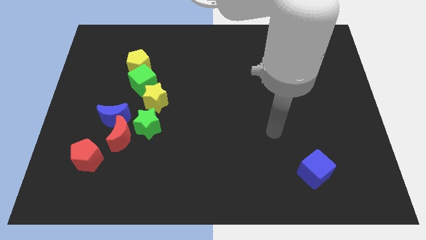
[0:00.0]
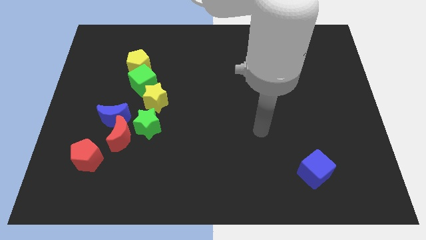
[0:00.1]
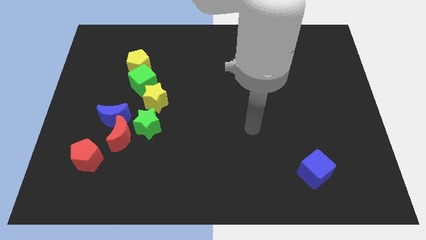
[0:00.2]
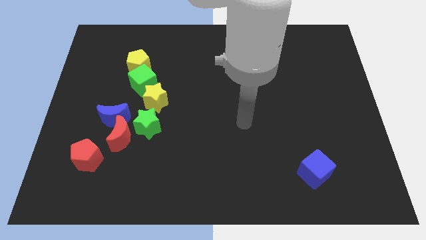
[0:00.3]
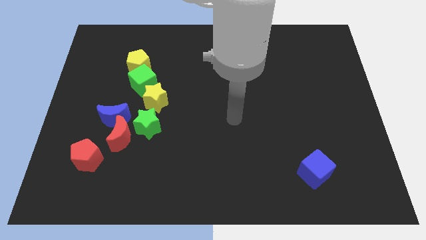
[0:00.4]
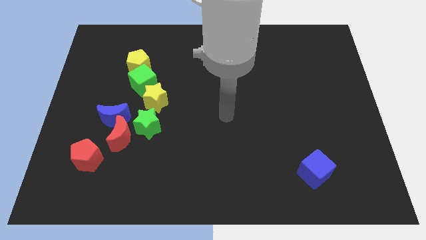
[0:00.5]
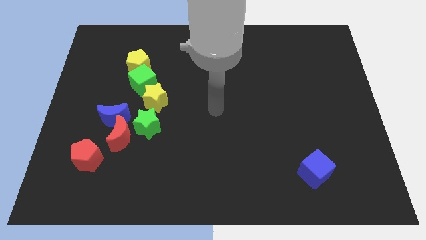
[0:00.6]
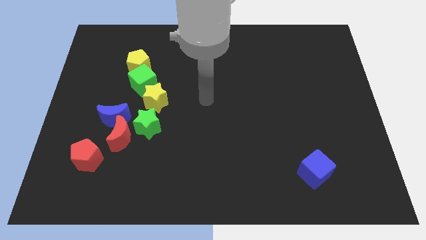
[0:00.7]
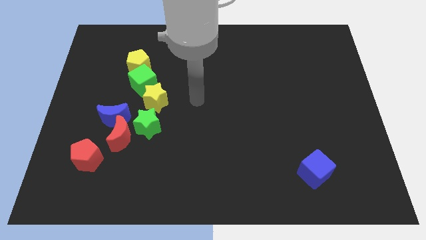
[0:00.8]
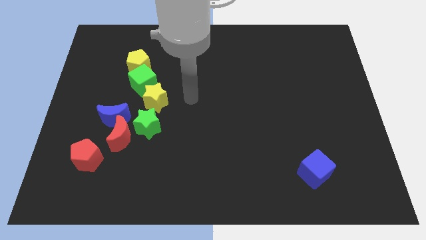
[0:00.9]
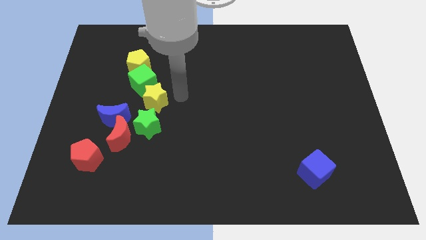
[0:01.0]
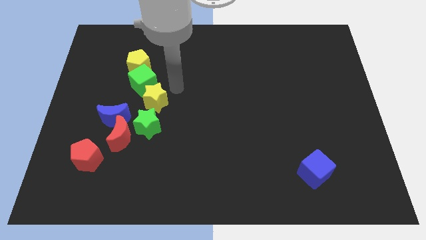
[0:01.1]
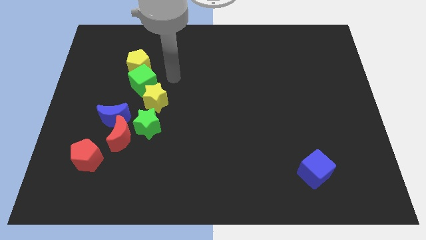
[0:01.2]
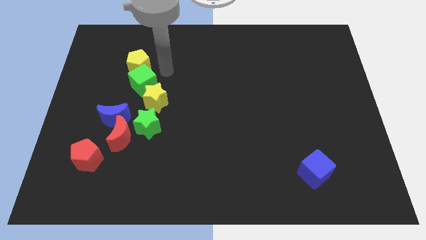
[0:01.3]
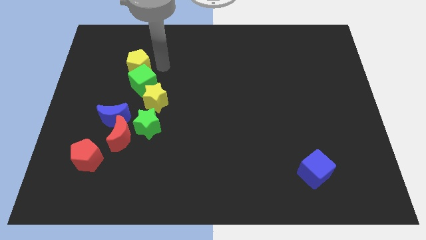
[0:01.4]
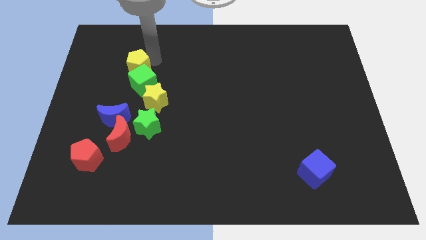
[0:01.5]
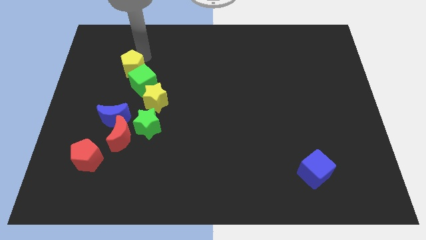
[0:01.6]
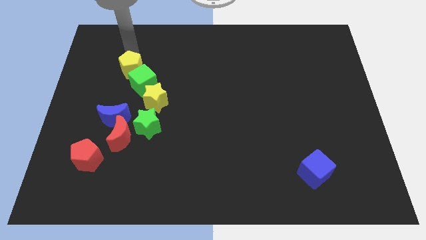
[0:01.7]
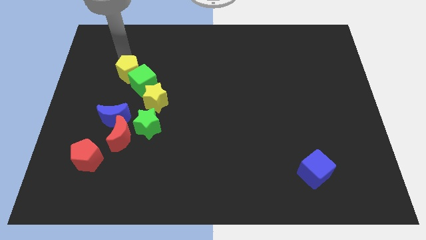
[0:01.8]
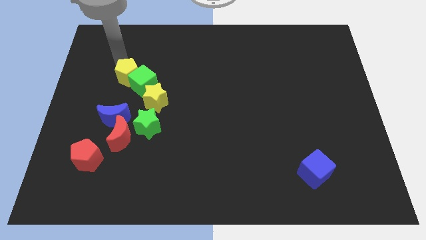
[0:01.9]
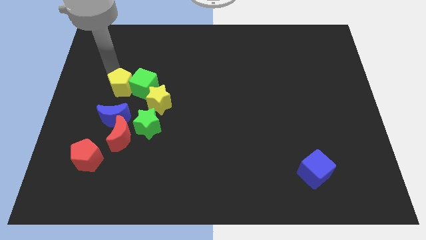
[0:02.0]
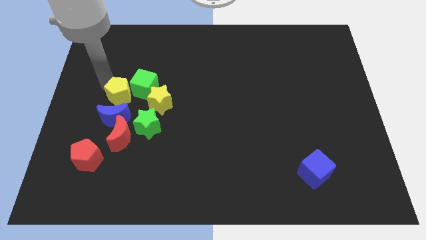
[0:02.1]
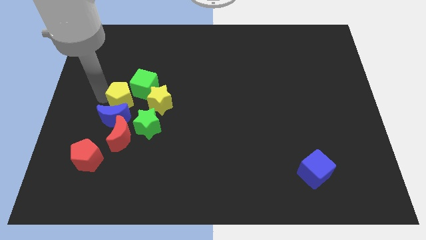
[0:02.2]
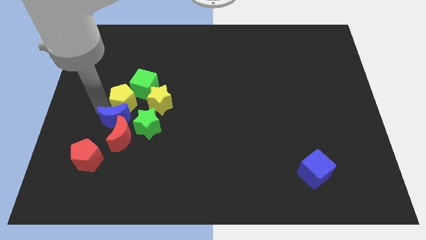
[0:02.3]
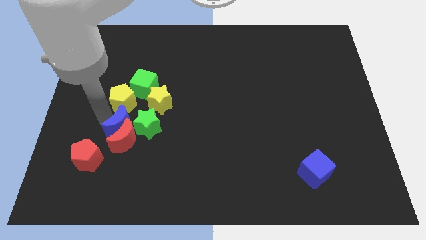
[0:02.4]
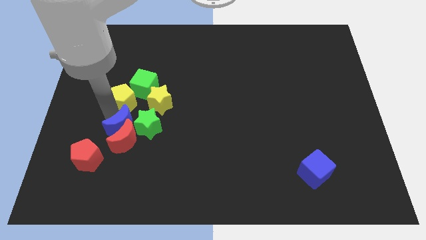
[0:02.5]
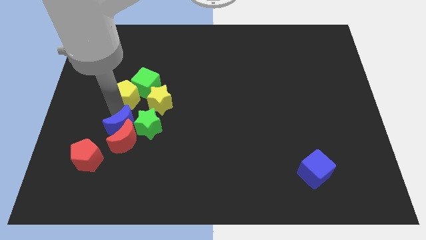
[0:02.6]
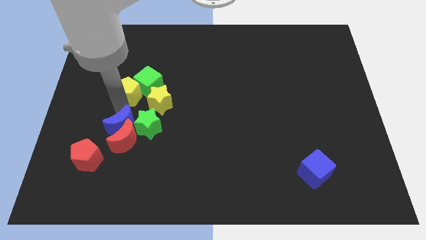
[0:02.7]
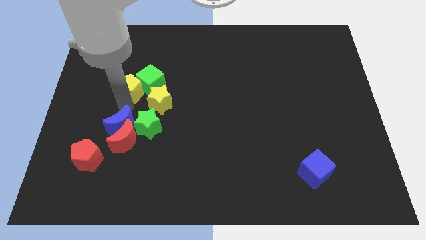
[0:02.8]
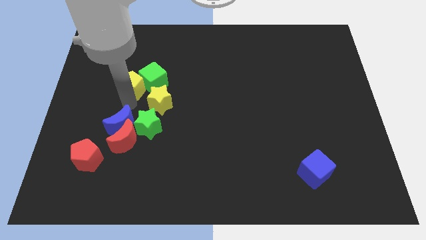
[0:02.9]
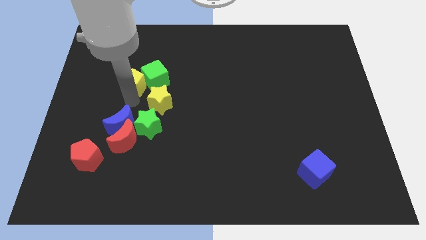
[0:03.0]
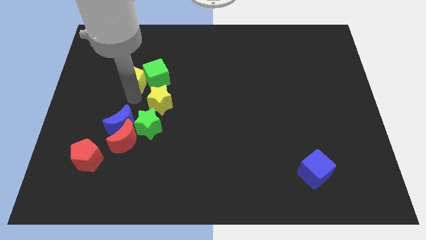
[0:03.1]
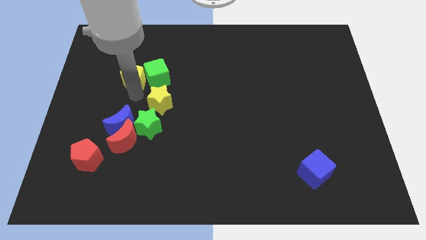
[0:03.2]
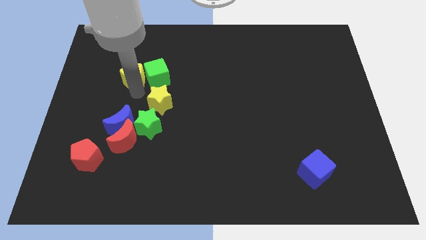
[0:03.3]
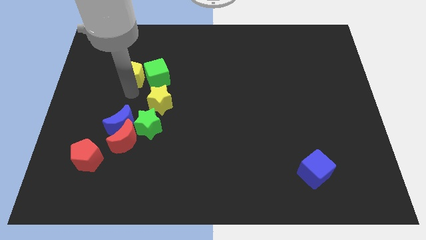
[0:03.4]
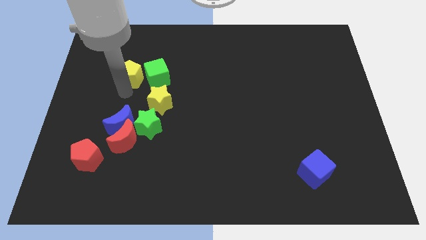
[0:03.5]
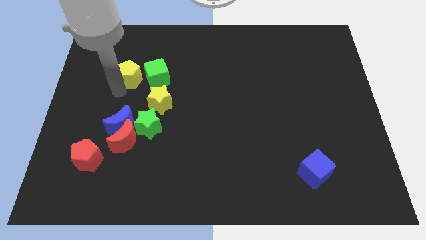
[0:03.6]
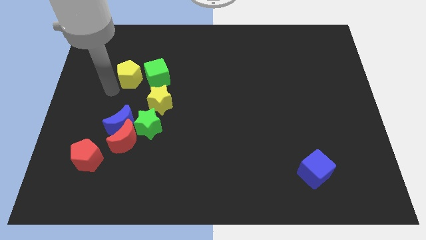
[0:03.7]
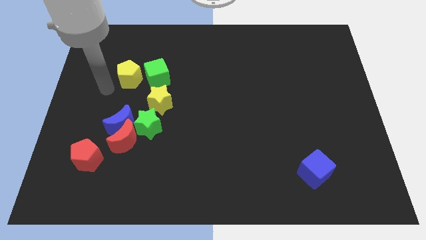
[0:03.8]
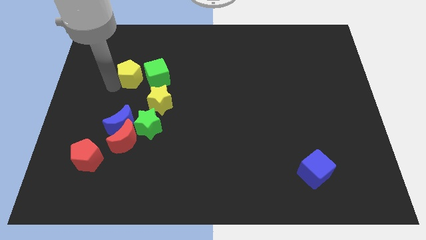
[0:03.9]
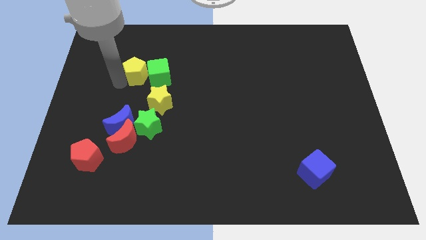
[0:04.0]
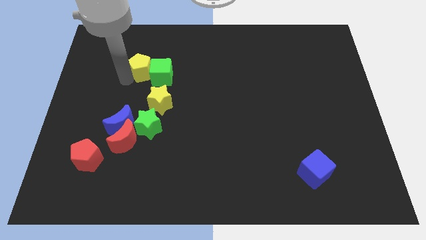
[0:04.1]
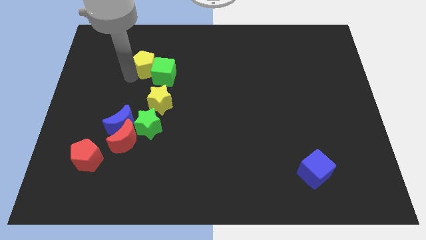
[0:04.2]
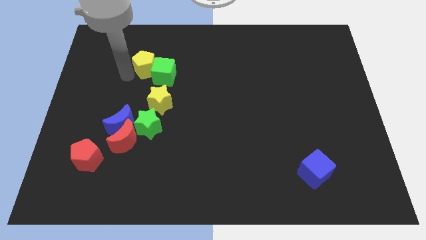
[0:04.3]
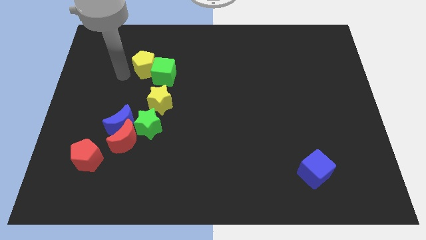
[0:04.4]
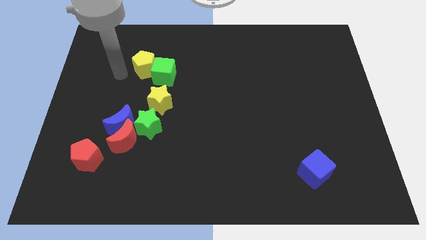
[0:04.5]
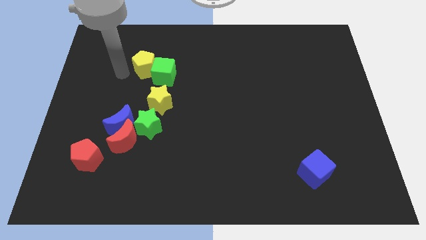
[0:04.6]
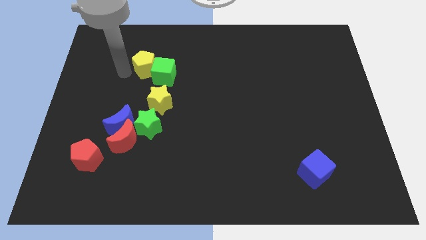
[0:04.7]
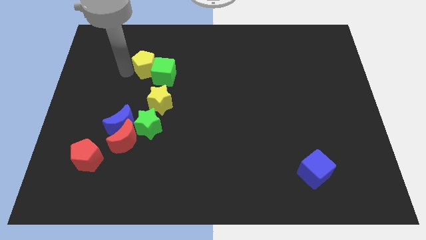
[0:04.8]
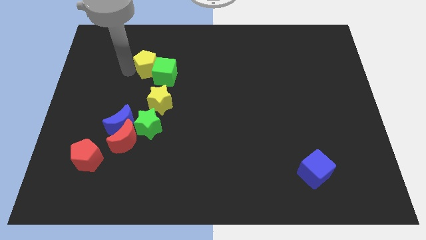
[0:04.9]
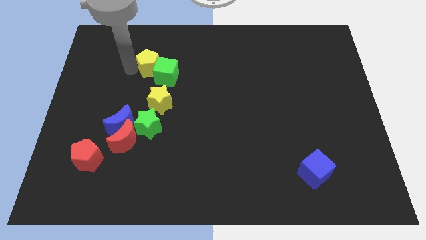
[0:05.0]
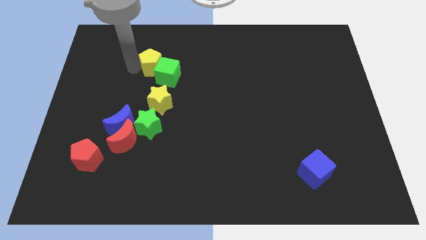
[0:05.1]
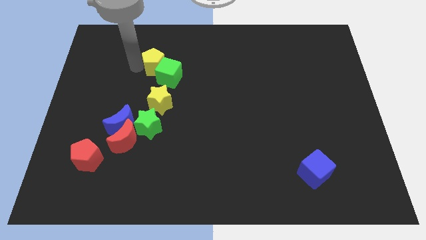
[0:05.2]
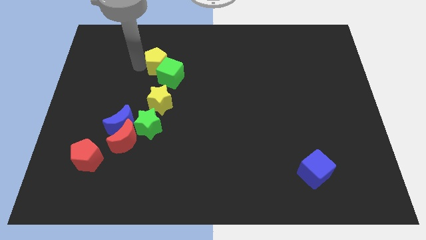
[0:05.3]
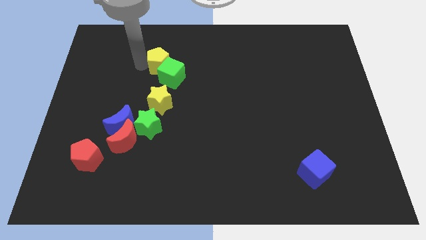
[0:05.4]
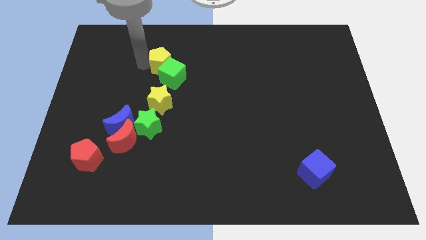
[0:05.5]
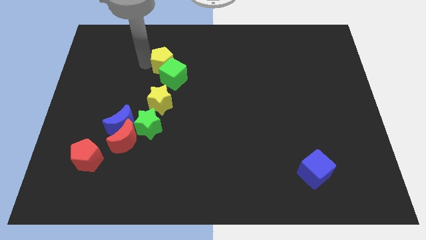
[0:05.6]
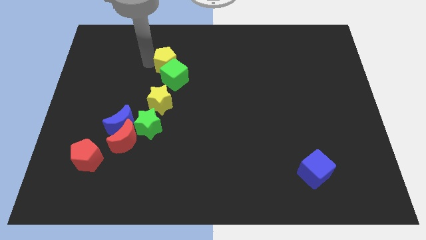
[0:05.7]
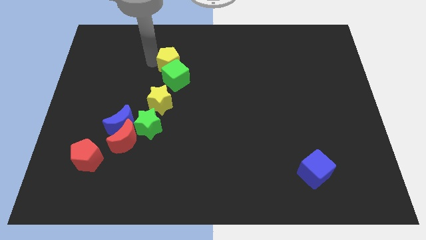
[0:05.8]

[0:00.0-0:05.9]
push the yellow pentagon to the right slightly

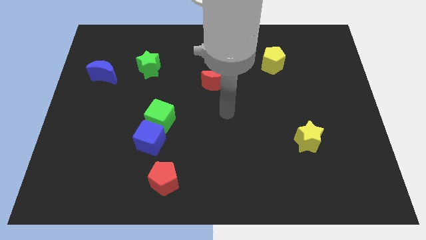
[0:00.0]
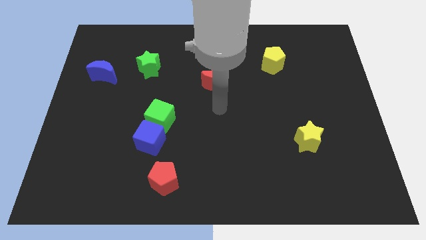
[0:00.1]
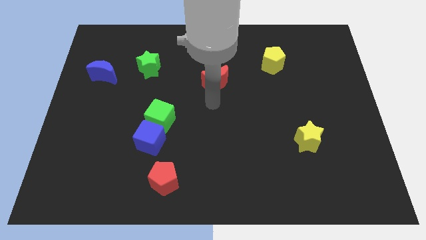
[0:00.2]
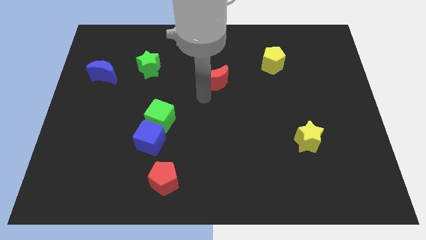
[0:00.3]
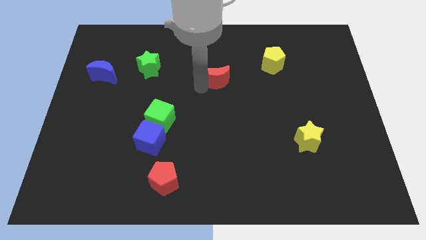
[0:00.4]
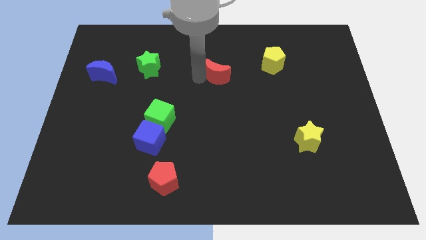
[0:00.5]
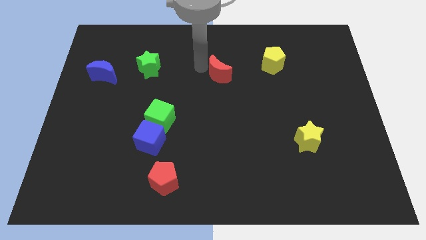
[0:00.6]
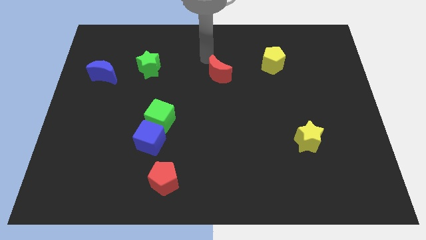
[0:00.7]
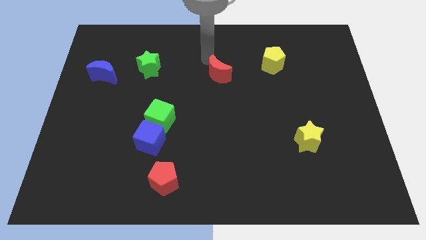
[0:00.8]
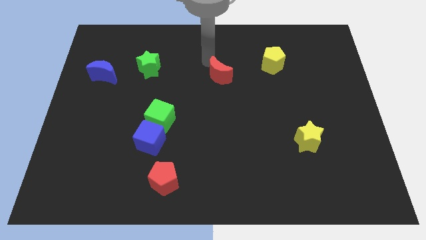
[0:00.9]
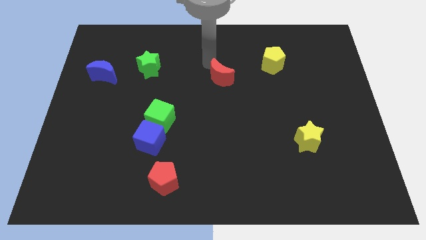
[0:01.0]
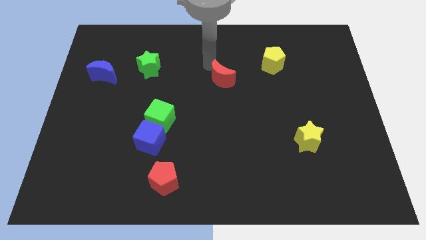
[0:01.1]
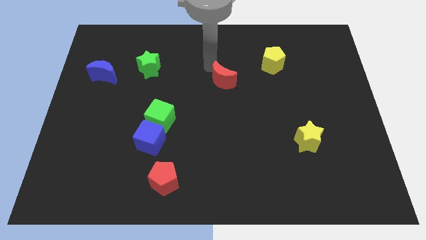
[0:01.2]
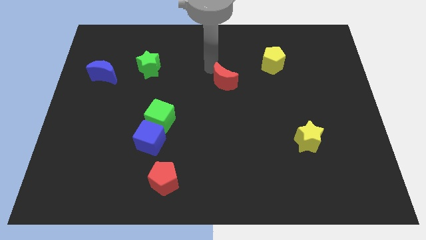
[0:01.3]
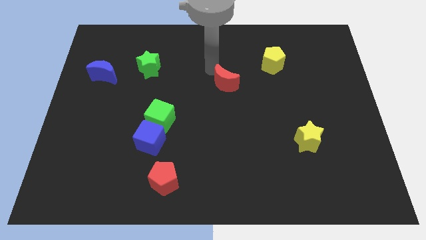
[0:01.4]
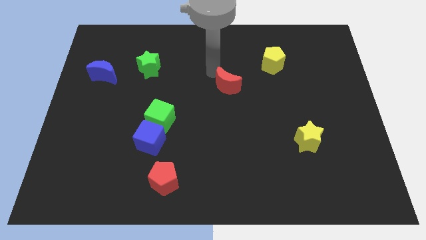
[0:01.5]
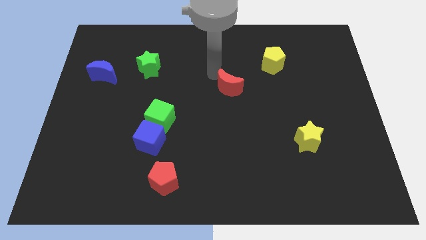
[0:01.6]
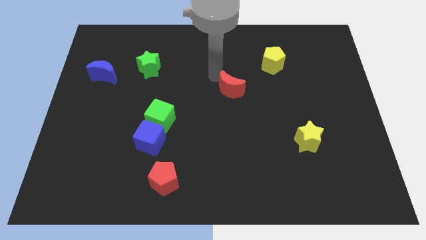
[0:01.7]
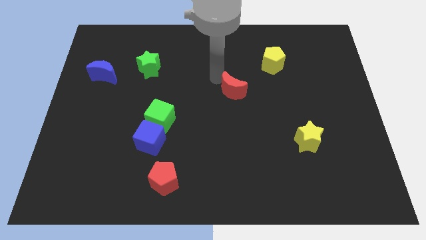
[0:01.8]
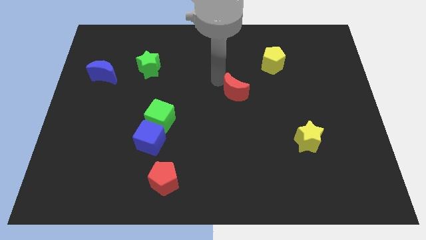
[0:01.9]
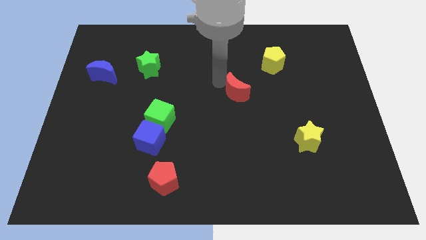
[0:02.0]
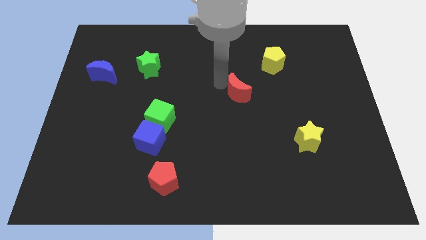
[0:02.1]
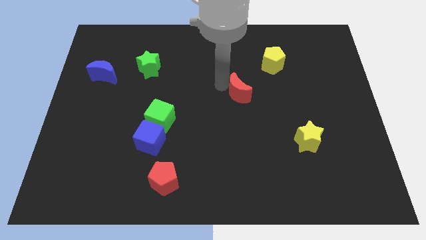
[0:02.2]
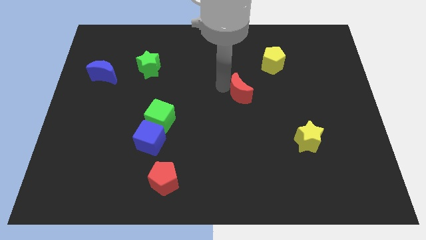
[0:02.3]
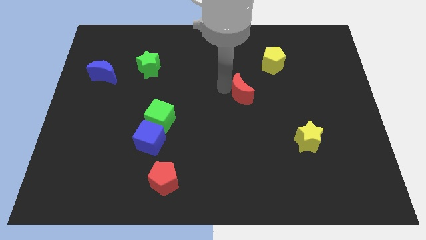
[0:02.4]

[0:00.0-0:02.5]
push the red moon a little diagonally downwards and right

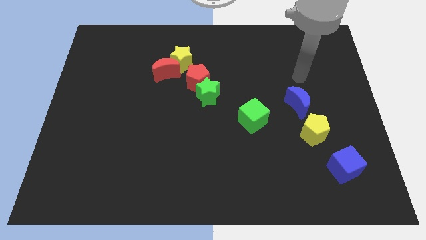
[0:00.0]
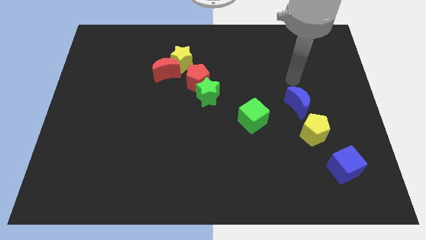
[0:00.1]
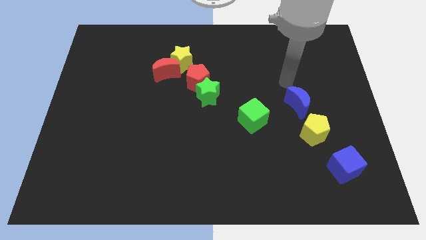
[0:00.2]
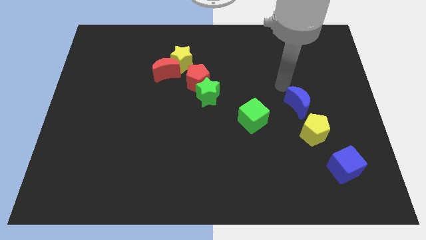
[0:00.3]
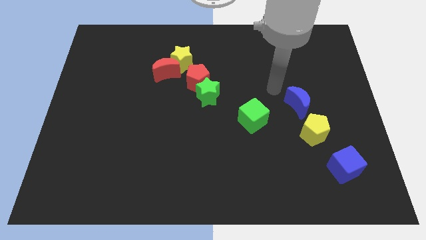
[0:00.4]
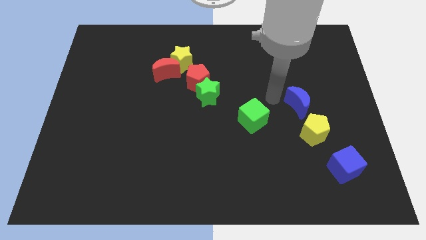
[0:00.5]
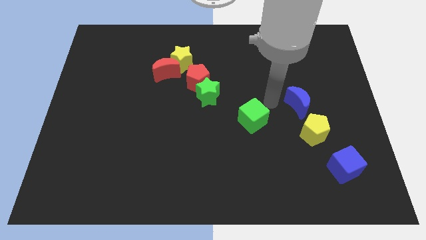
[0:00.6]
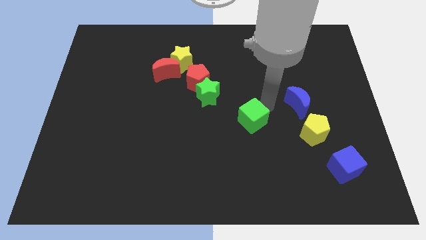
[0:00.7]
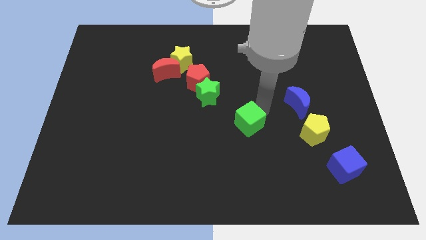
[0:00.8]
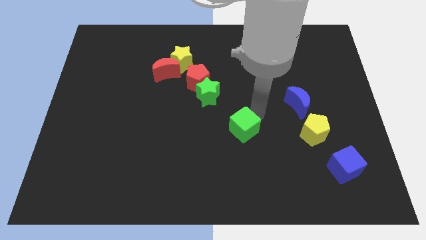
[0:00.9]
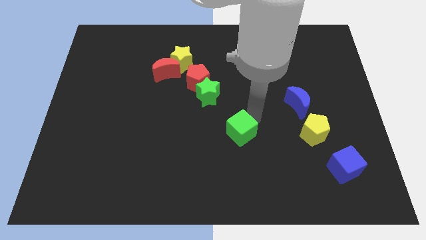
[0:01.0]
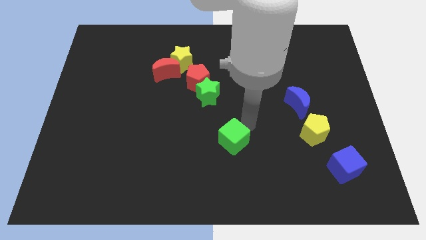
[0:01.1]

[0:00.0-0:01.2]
push the green cube a little bit downwards and to the left
